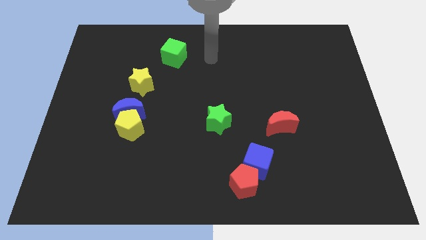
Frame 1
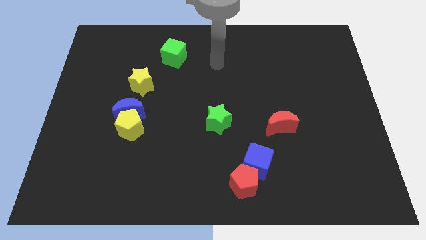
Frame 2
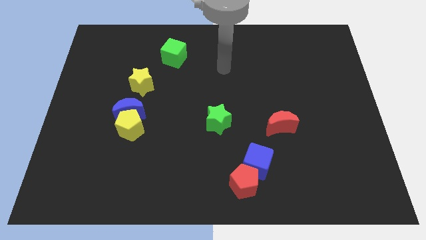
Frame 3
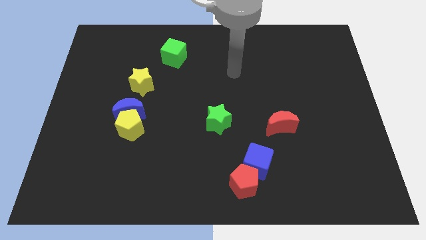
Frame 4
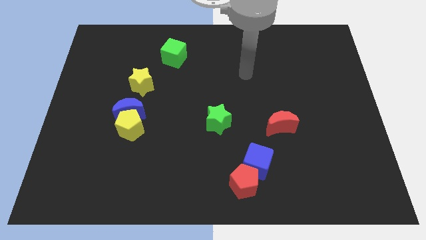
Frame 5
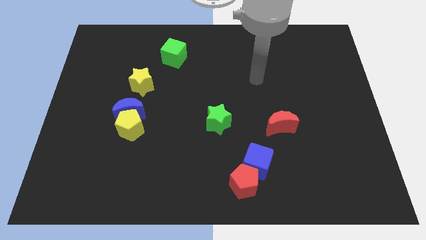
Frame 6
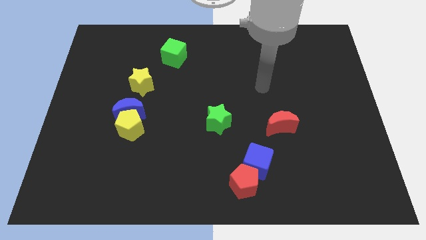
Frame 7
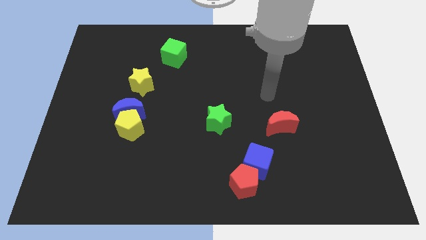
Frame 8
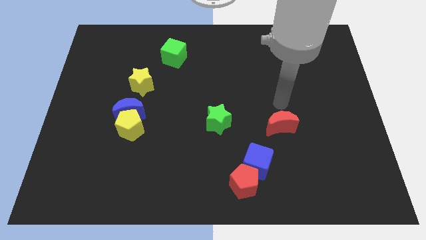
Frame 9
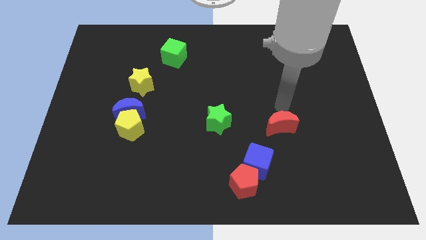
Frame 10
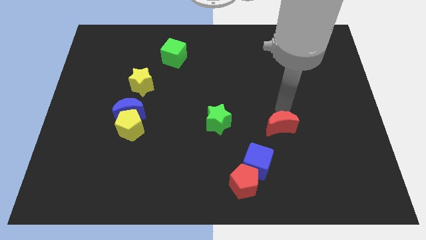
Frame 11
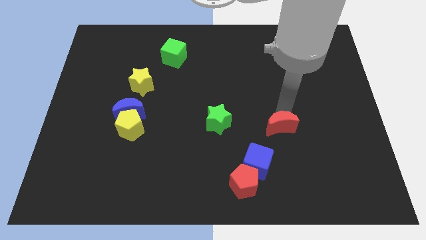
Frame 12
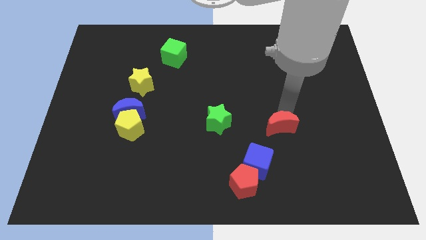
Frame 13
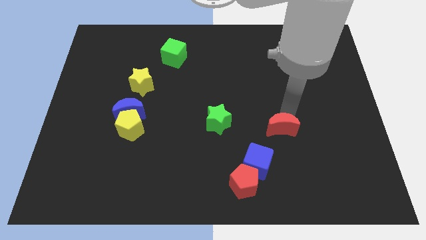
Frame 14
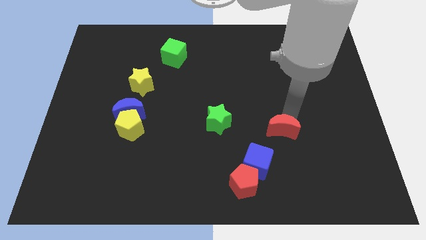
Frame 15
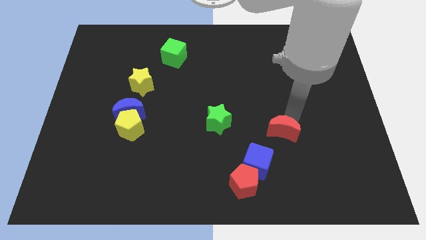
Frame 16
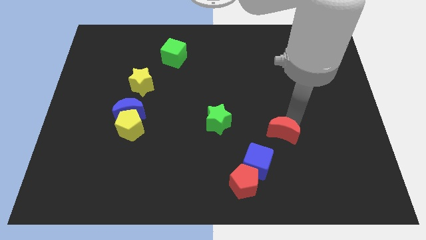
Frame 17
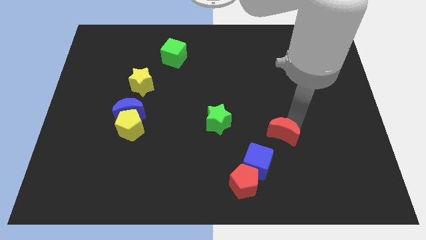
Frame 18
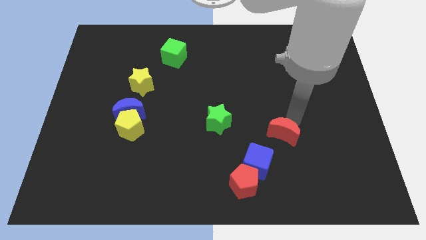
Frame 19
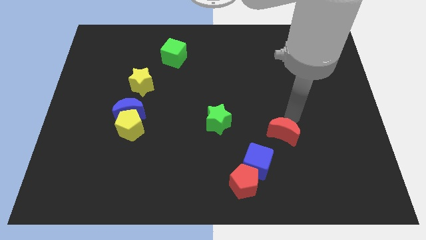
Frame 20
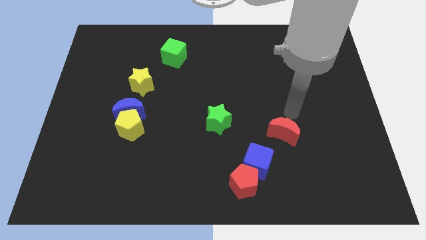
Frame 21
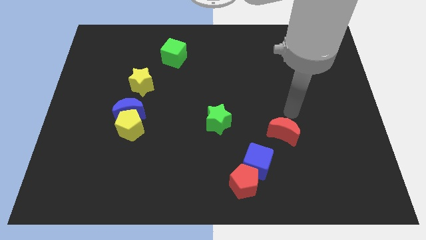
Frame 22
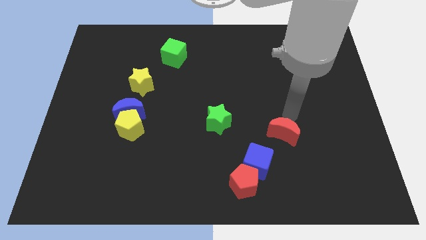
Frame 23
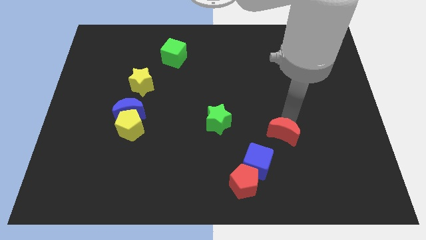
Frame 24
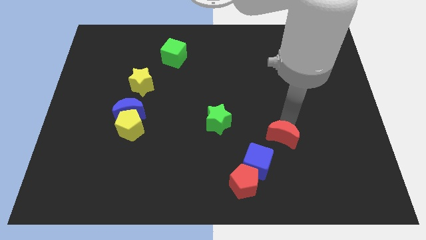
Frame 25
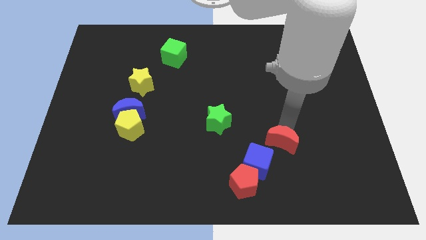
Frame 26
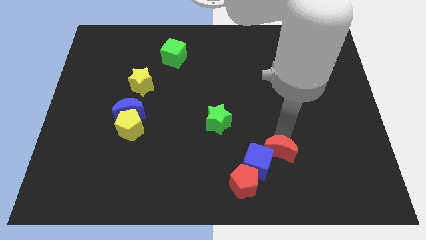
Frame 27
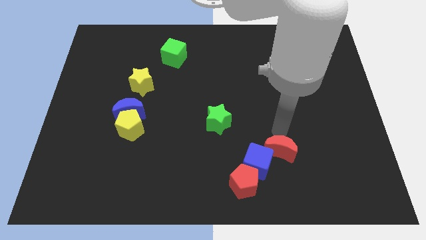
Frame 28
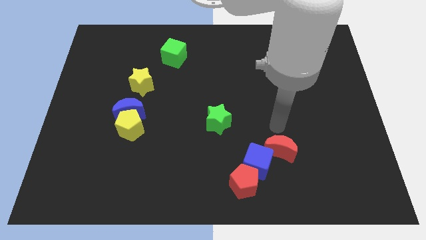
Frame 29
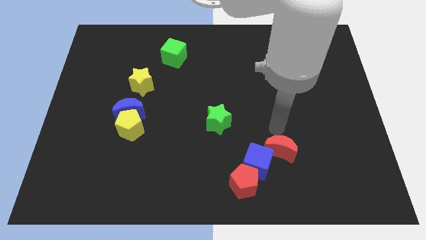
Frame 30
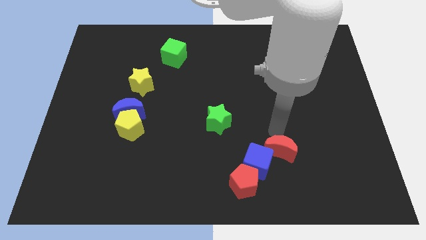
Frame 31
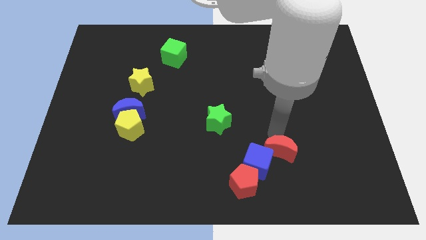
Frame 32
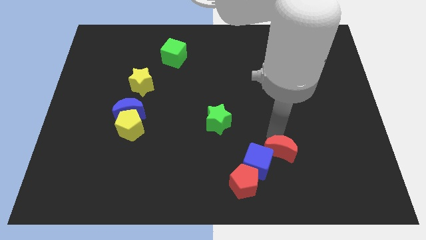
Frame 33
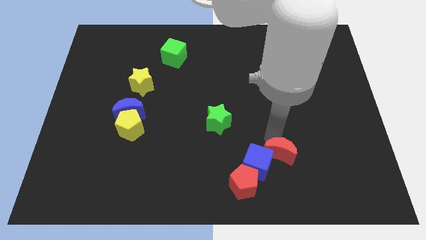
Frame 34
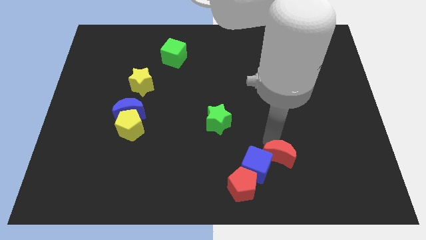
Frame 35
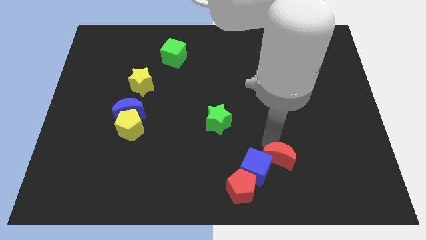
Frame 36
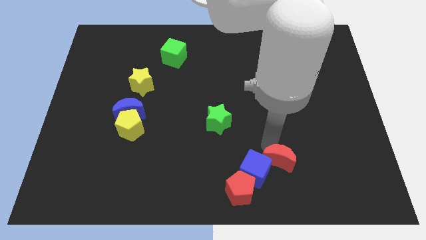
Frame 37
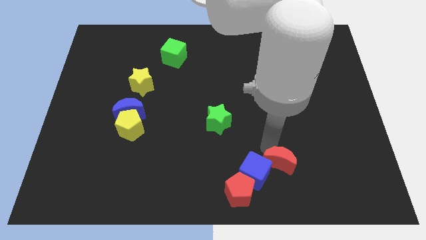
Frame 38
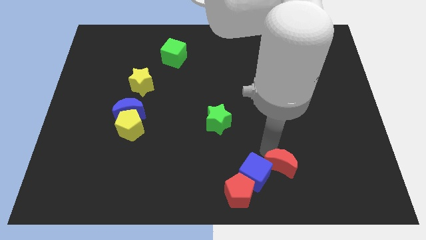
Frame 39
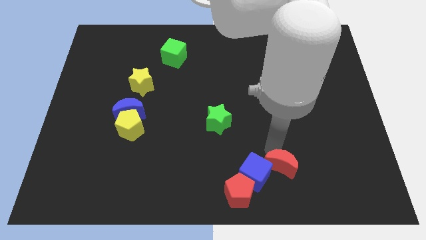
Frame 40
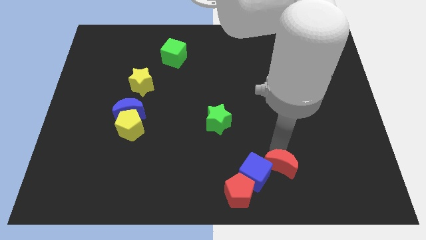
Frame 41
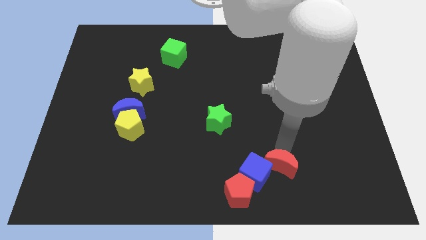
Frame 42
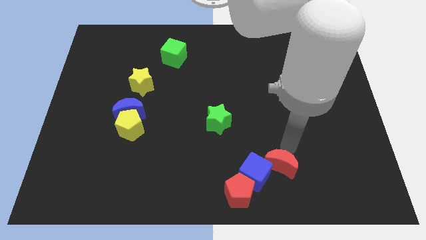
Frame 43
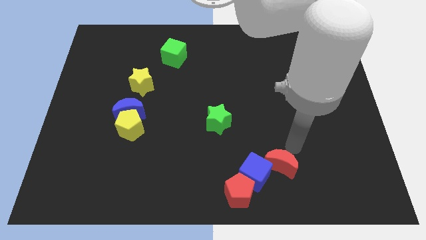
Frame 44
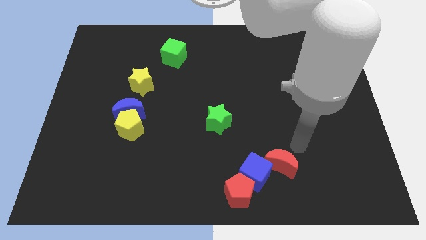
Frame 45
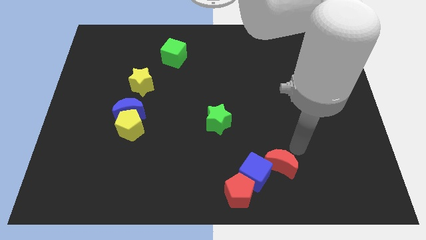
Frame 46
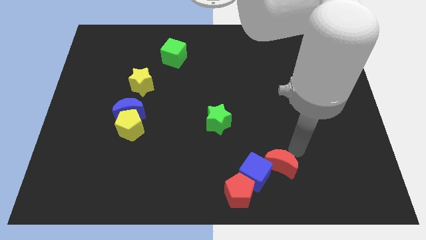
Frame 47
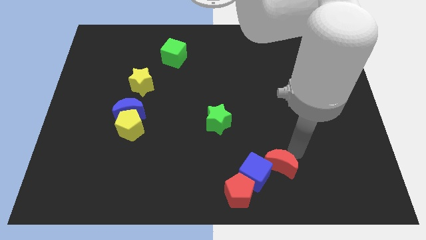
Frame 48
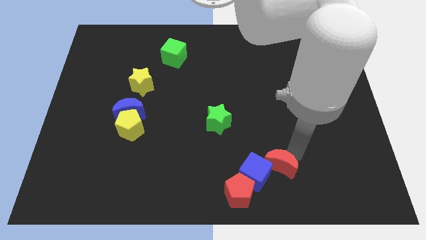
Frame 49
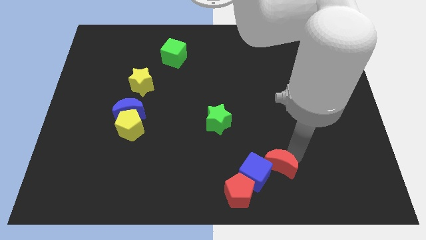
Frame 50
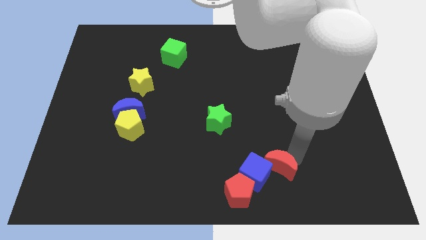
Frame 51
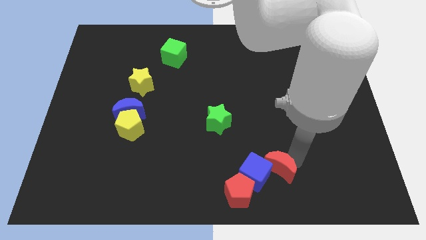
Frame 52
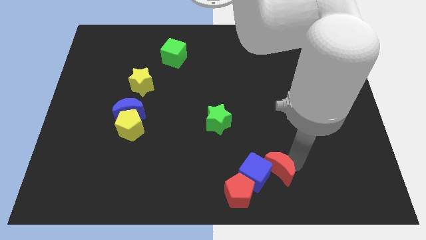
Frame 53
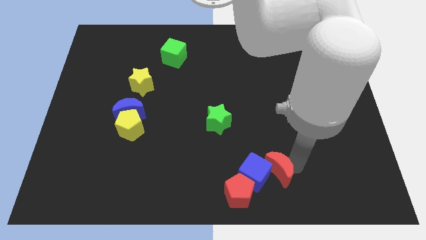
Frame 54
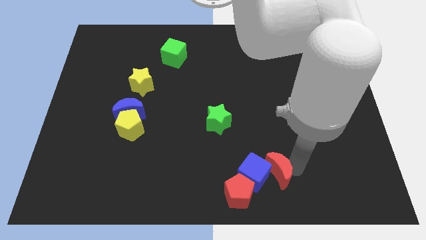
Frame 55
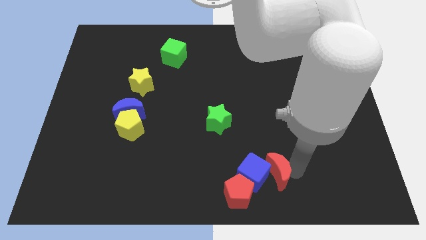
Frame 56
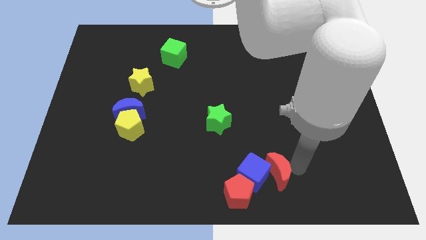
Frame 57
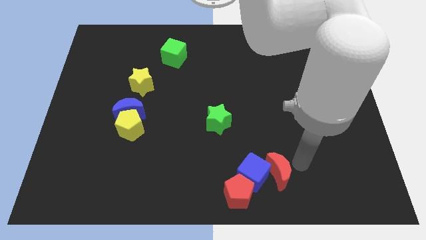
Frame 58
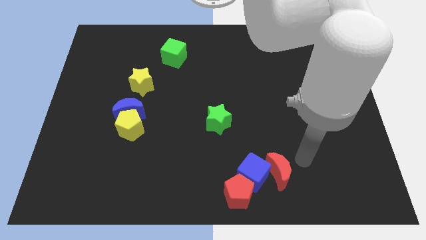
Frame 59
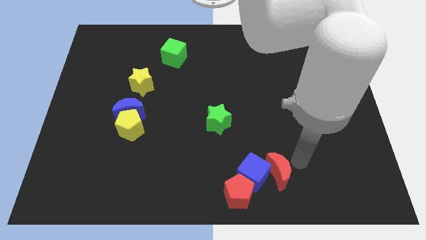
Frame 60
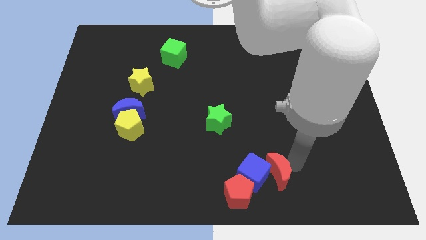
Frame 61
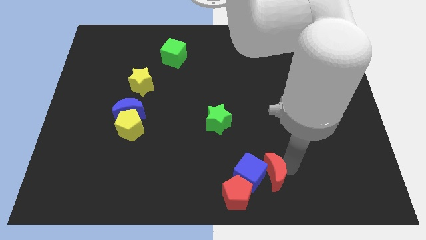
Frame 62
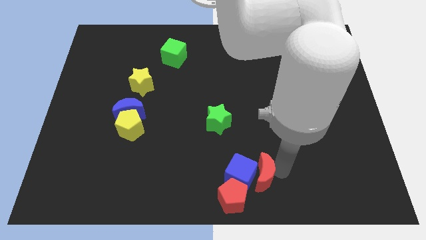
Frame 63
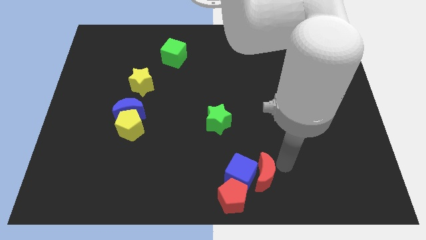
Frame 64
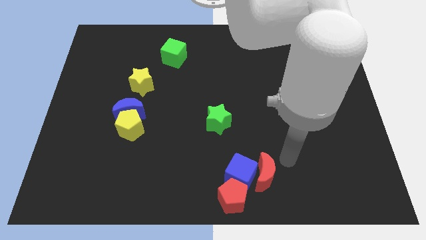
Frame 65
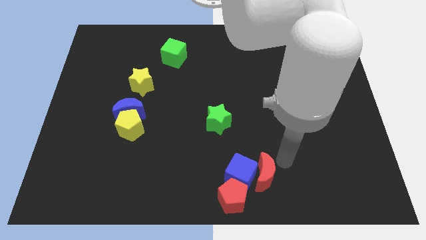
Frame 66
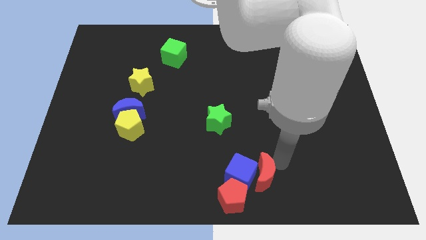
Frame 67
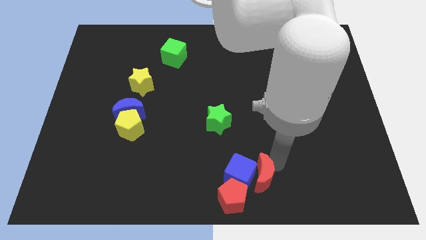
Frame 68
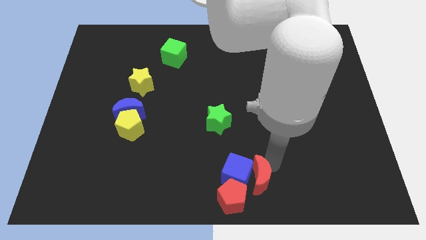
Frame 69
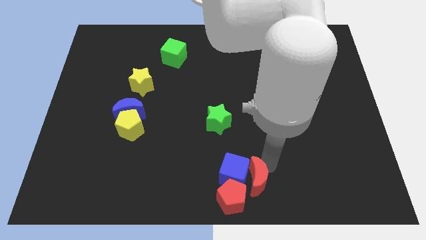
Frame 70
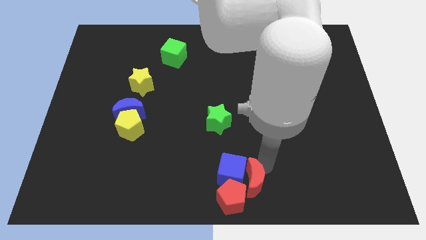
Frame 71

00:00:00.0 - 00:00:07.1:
move the red moon to the red pentagon
